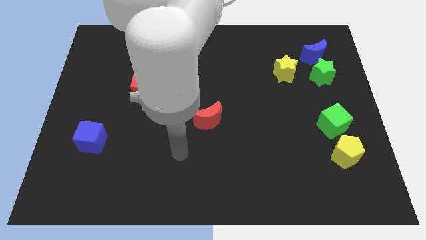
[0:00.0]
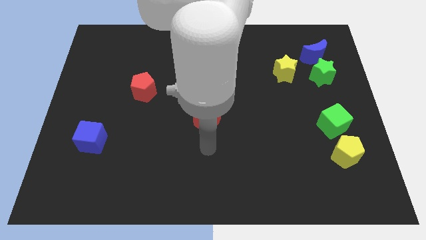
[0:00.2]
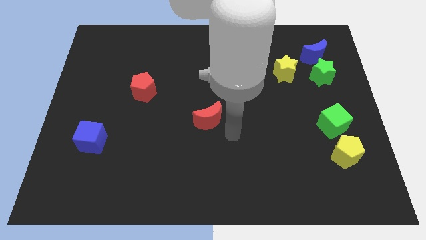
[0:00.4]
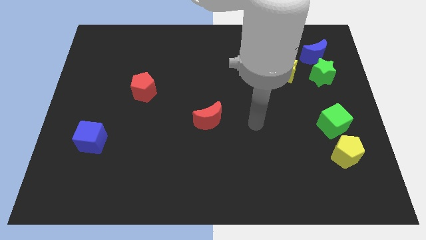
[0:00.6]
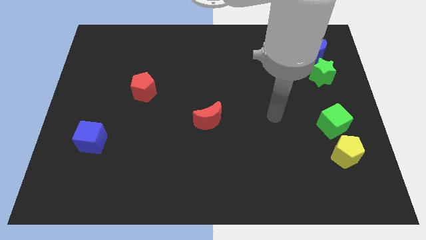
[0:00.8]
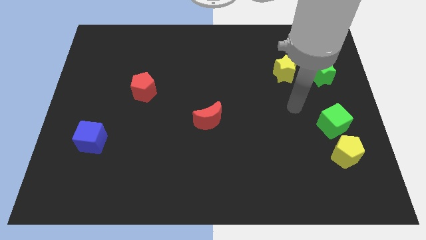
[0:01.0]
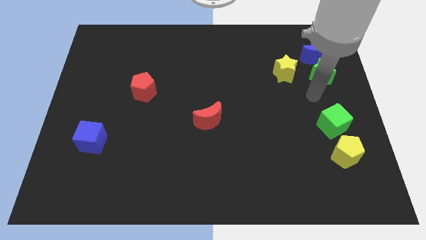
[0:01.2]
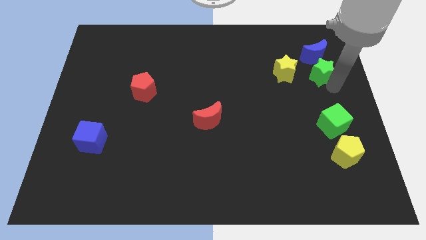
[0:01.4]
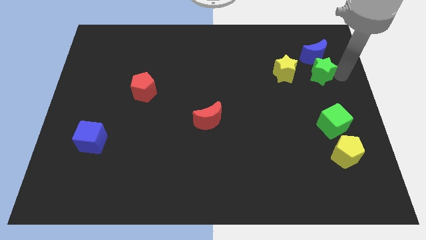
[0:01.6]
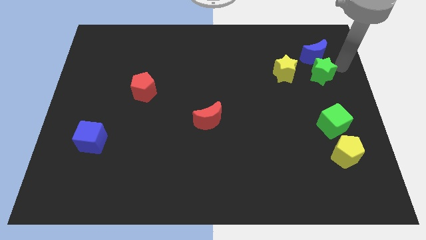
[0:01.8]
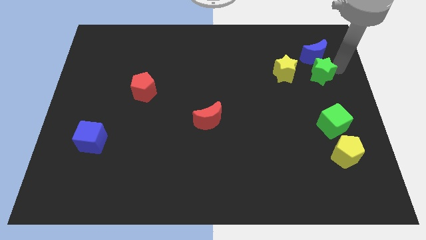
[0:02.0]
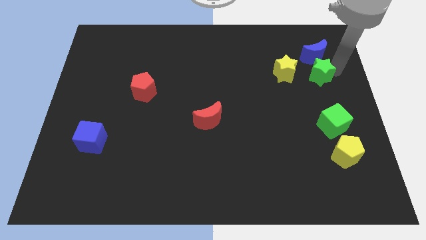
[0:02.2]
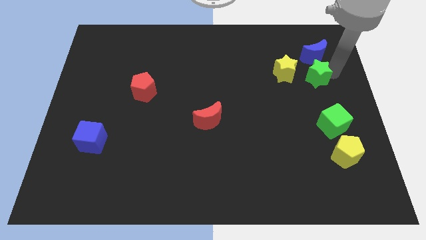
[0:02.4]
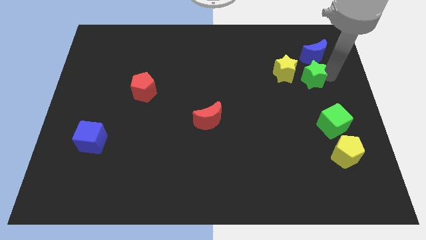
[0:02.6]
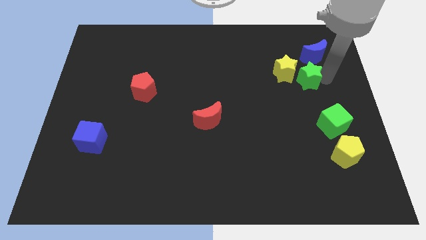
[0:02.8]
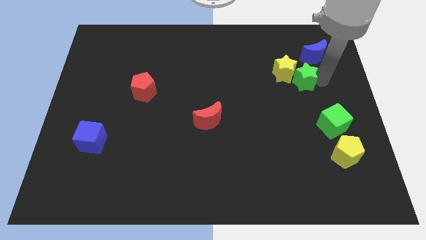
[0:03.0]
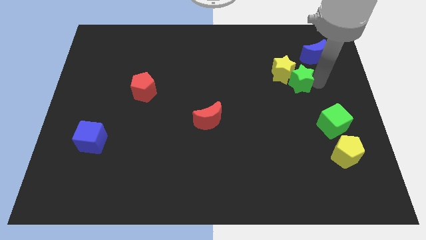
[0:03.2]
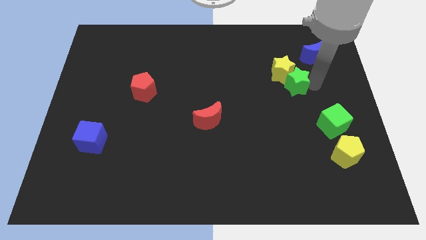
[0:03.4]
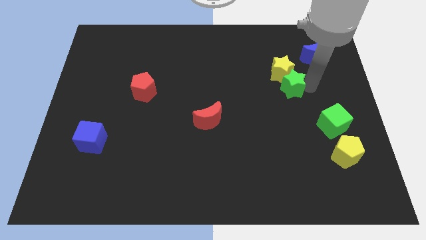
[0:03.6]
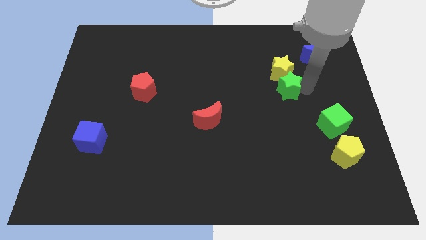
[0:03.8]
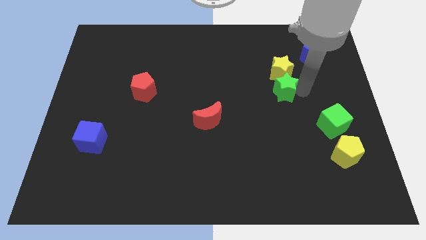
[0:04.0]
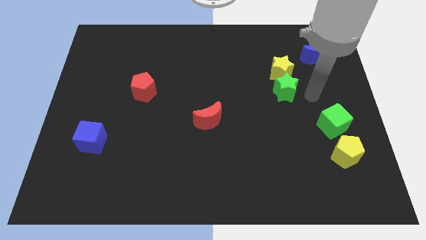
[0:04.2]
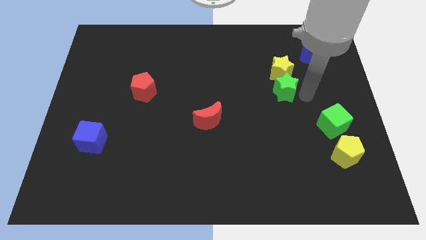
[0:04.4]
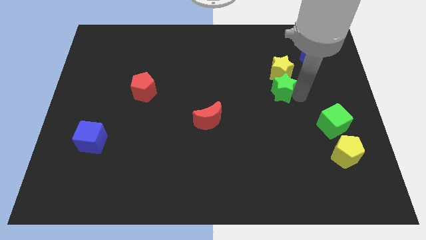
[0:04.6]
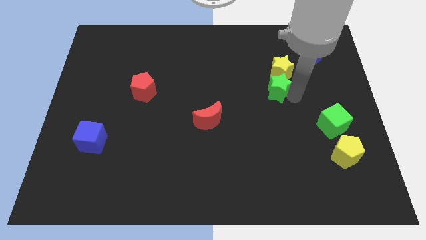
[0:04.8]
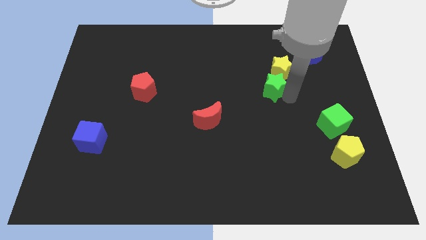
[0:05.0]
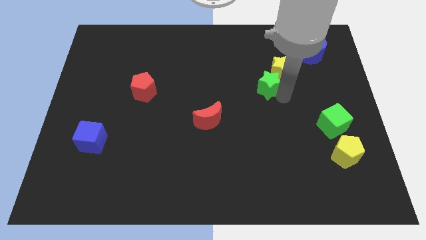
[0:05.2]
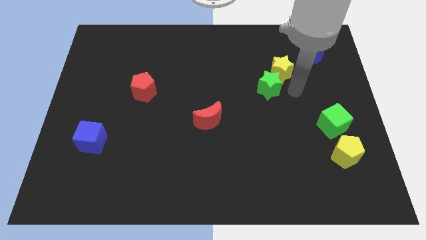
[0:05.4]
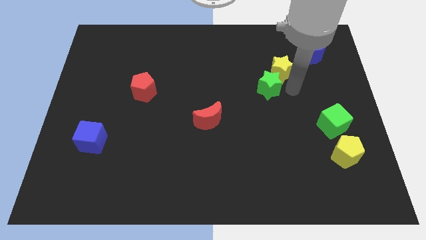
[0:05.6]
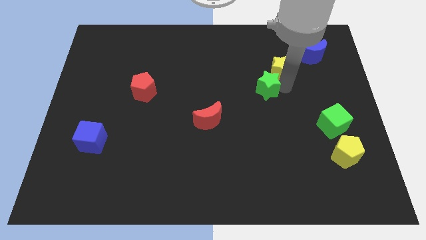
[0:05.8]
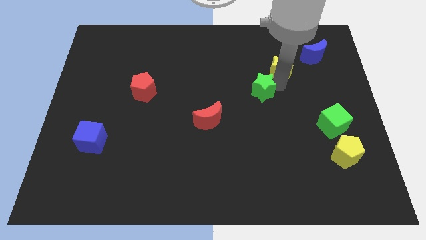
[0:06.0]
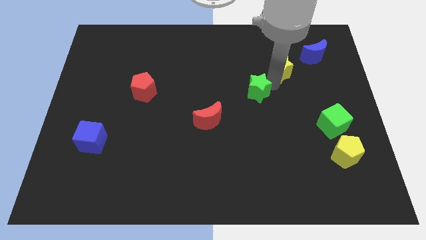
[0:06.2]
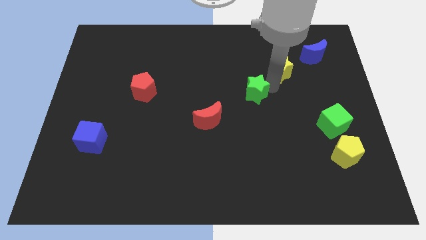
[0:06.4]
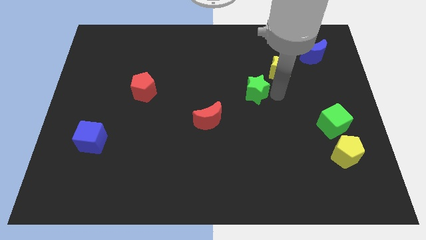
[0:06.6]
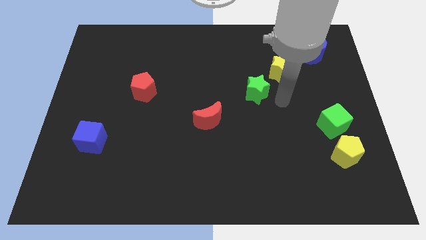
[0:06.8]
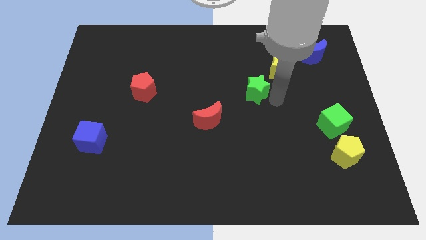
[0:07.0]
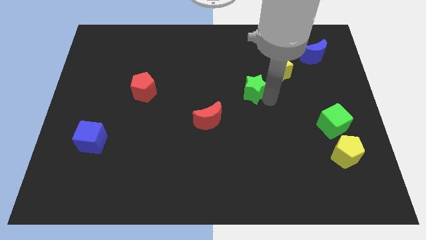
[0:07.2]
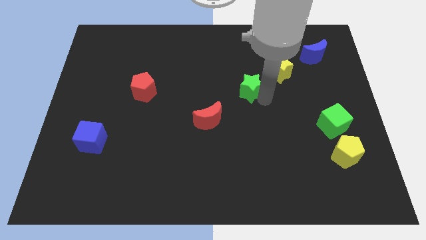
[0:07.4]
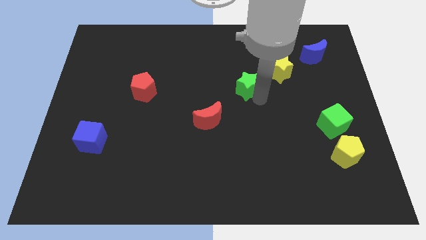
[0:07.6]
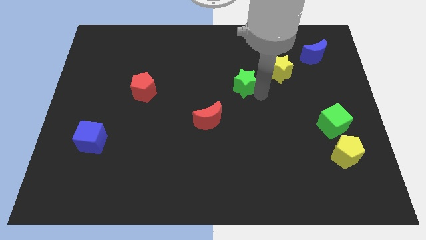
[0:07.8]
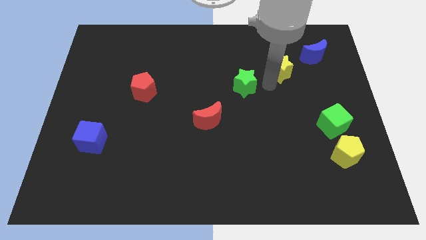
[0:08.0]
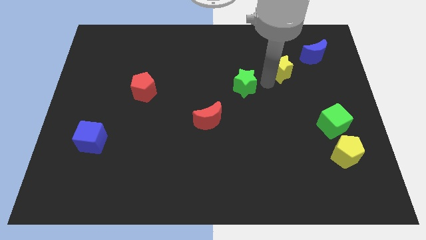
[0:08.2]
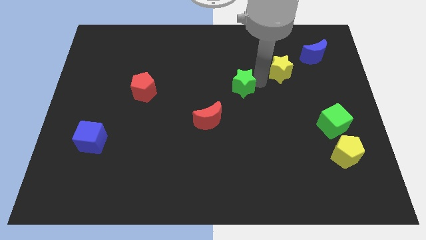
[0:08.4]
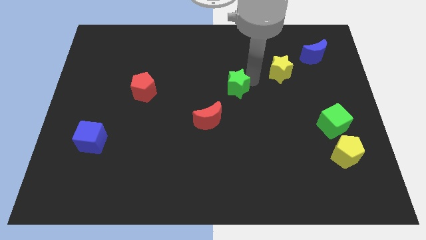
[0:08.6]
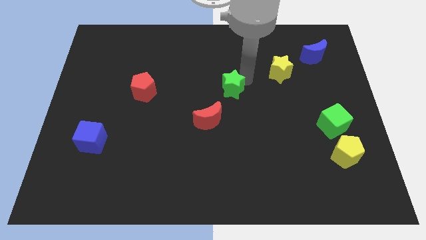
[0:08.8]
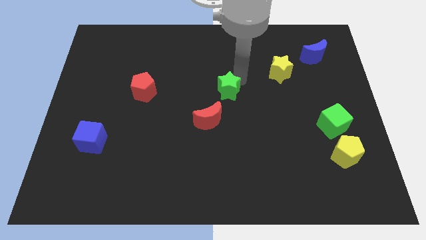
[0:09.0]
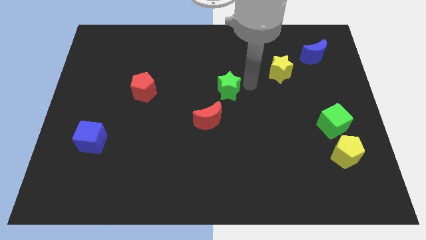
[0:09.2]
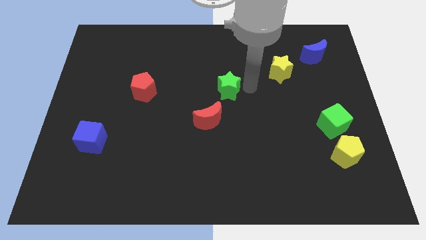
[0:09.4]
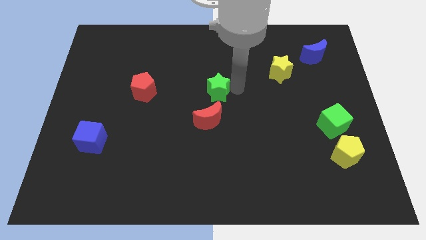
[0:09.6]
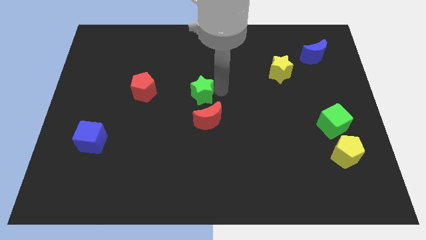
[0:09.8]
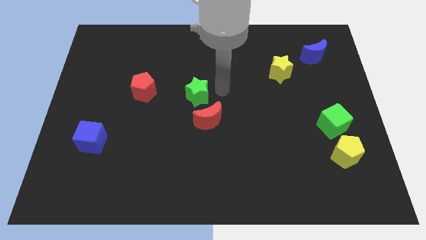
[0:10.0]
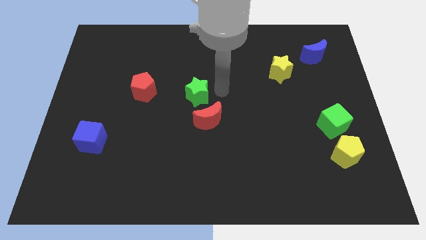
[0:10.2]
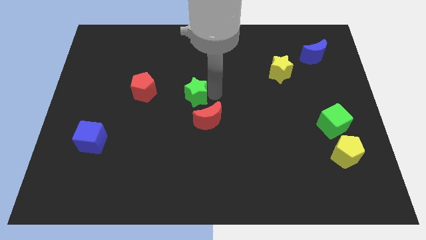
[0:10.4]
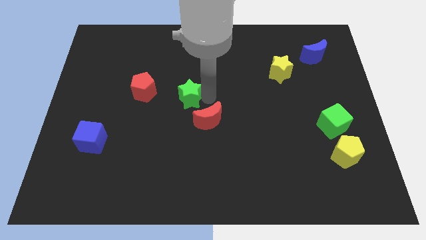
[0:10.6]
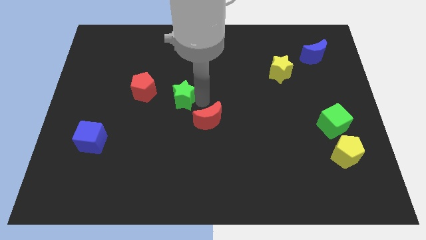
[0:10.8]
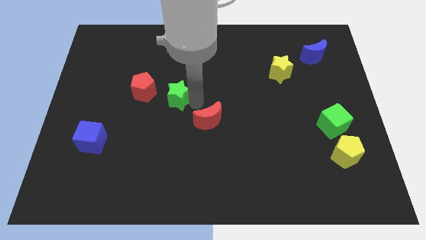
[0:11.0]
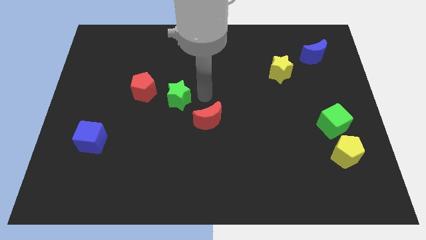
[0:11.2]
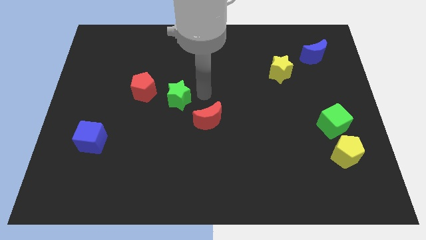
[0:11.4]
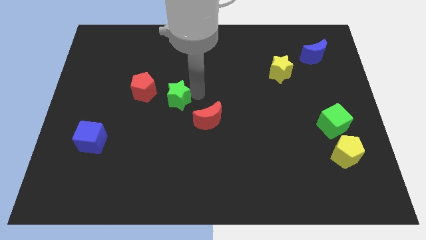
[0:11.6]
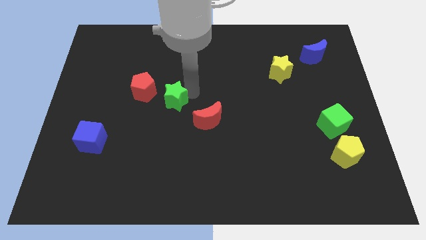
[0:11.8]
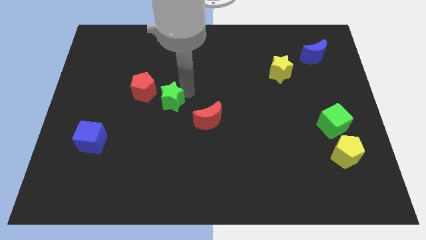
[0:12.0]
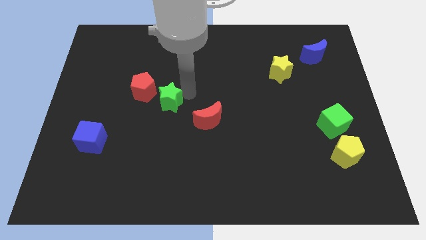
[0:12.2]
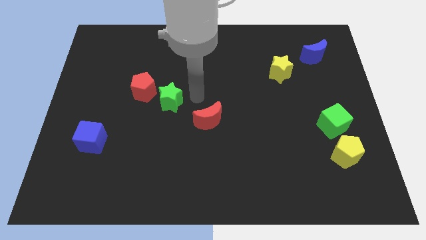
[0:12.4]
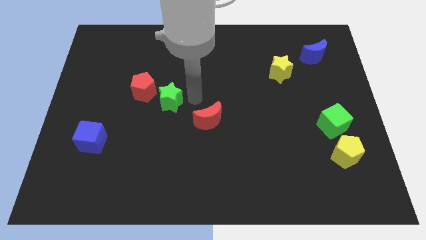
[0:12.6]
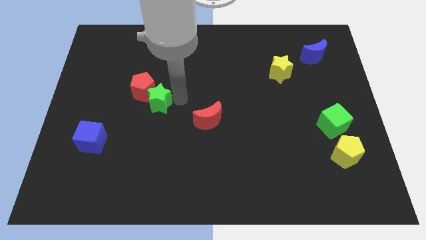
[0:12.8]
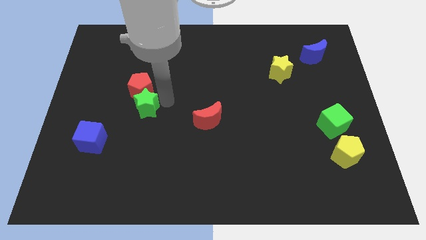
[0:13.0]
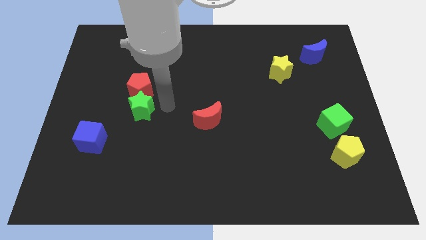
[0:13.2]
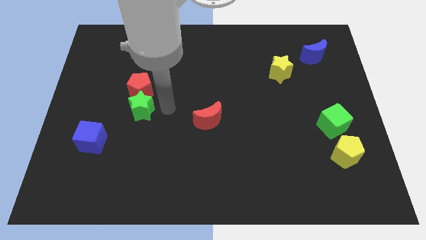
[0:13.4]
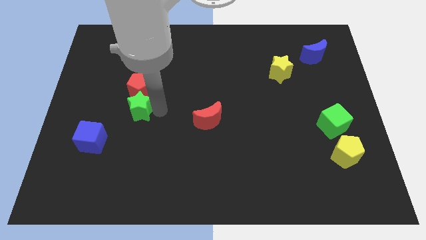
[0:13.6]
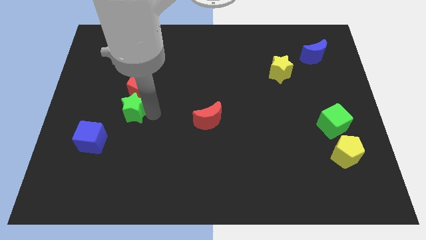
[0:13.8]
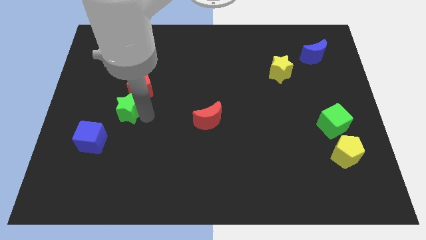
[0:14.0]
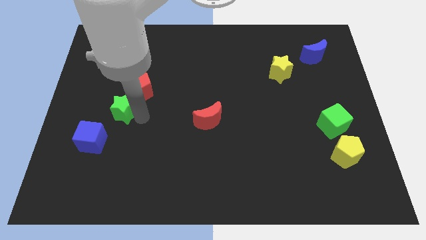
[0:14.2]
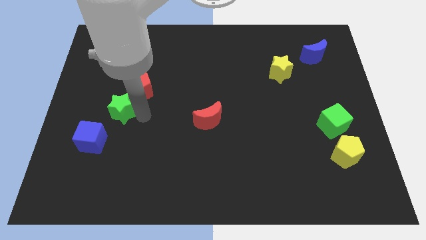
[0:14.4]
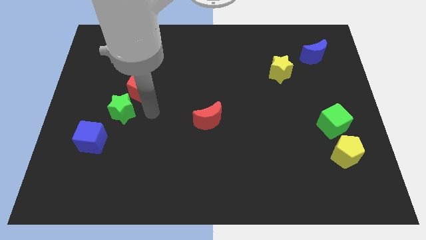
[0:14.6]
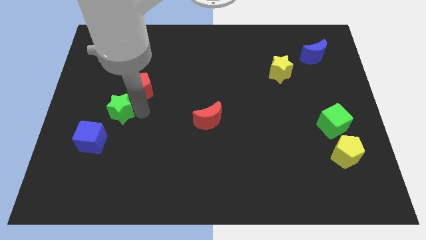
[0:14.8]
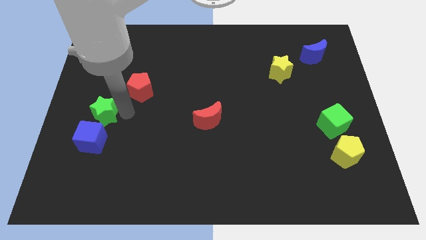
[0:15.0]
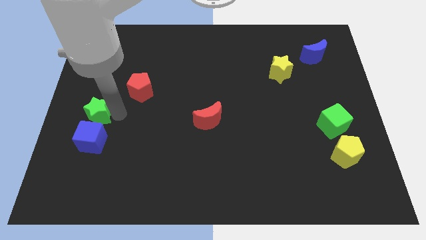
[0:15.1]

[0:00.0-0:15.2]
push the green star to the left side
